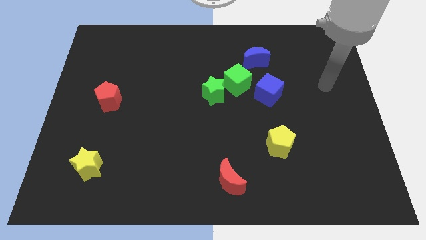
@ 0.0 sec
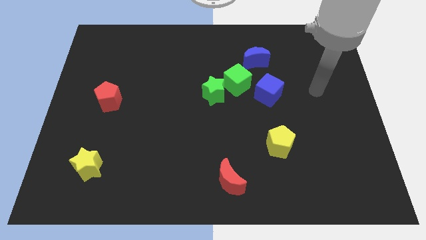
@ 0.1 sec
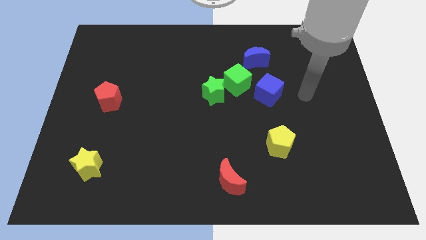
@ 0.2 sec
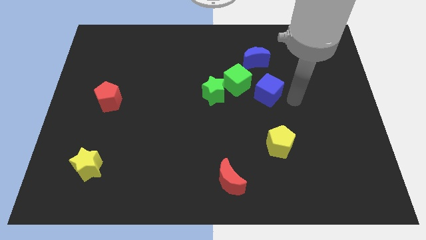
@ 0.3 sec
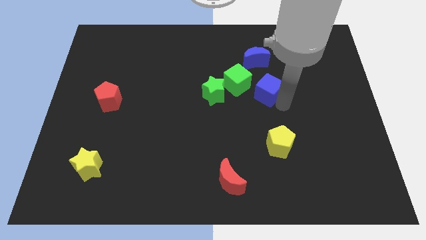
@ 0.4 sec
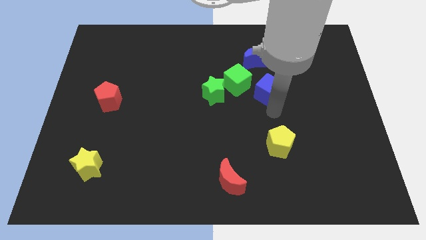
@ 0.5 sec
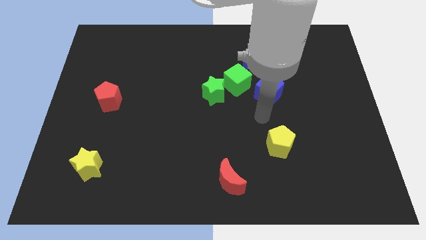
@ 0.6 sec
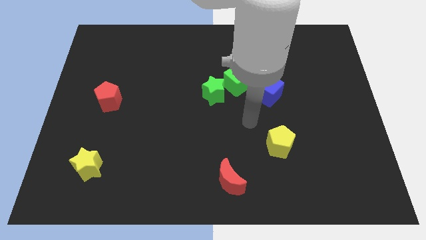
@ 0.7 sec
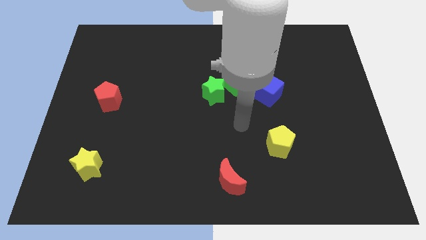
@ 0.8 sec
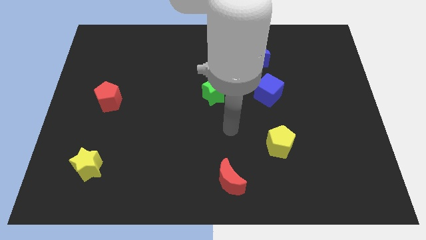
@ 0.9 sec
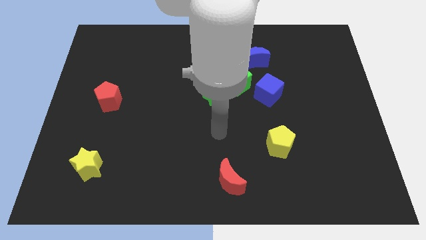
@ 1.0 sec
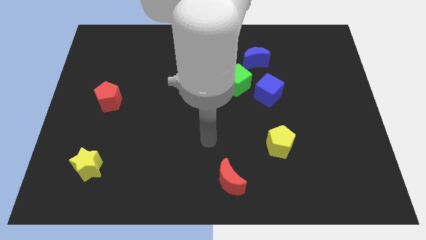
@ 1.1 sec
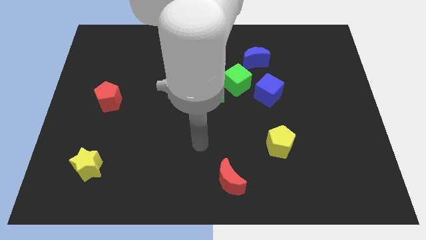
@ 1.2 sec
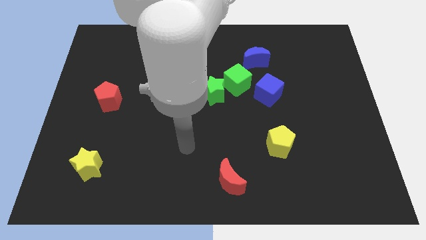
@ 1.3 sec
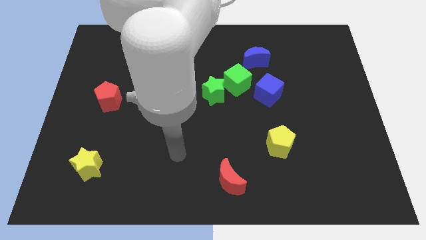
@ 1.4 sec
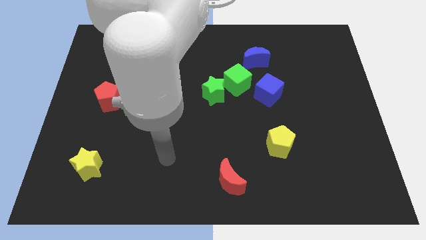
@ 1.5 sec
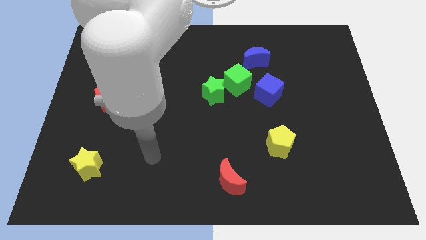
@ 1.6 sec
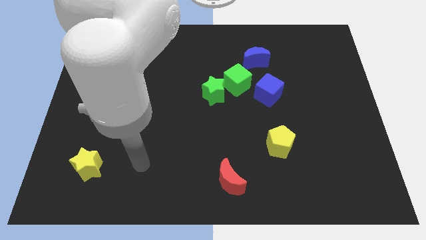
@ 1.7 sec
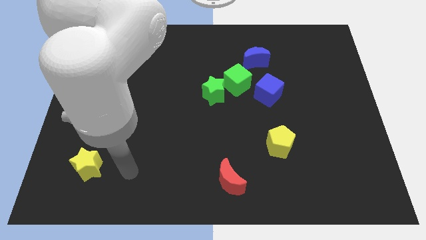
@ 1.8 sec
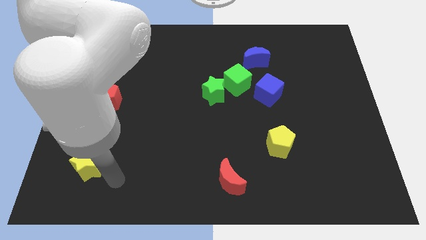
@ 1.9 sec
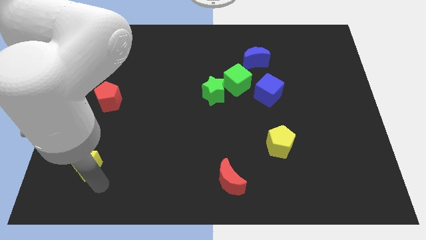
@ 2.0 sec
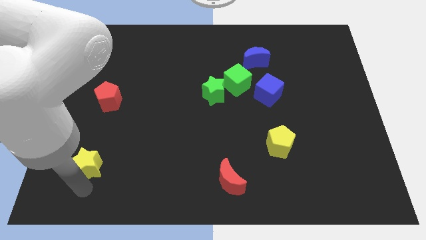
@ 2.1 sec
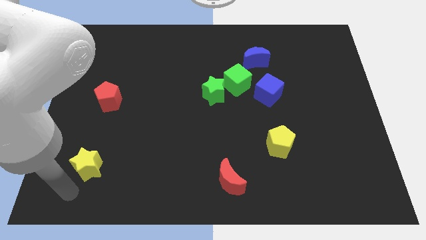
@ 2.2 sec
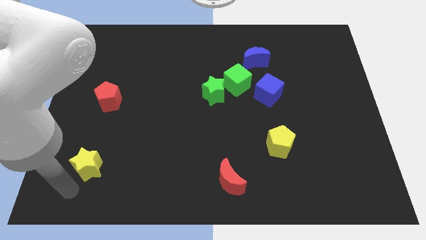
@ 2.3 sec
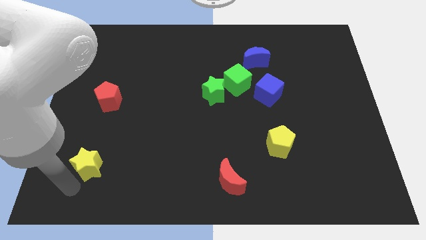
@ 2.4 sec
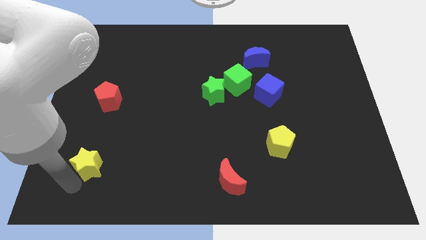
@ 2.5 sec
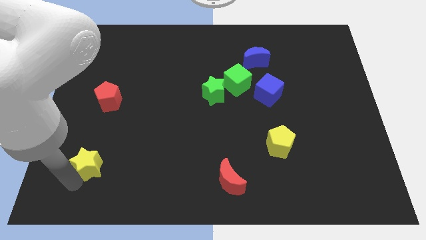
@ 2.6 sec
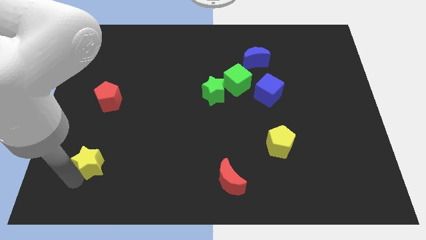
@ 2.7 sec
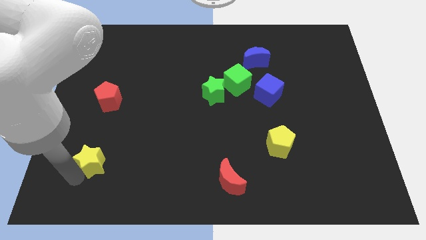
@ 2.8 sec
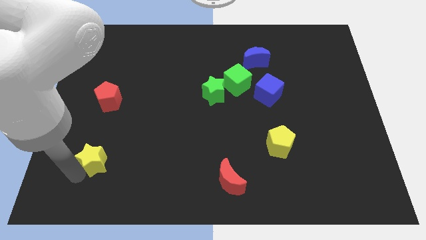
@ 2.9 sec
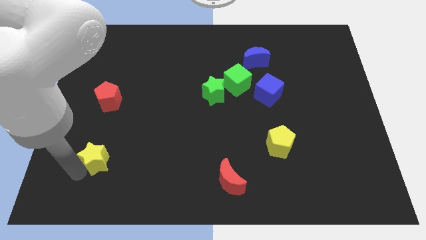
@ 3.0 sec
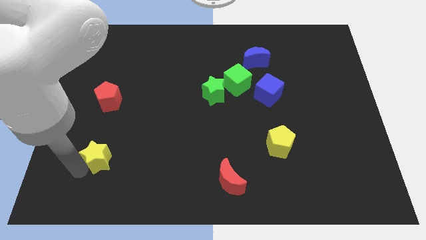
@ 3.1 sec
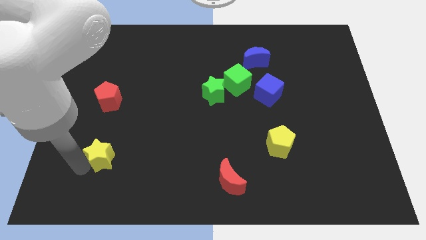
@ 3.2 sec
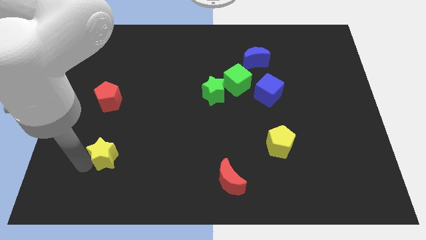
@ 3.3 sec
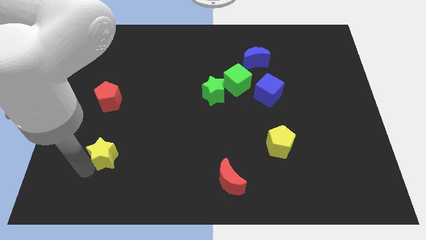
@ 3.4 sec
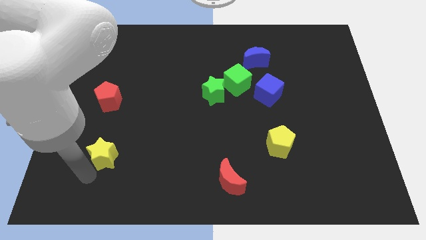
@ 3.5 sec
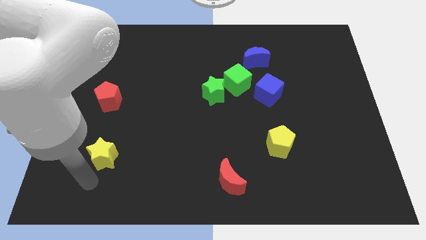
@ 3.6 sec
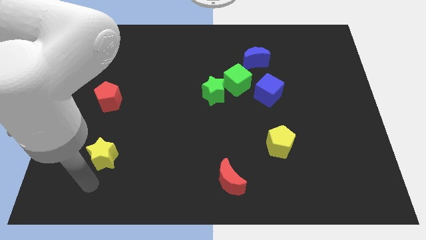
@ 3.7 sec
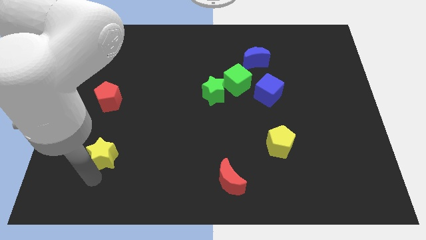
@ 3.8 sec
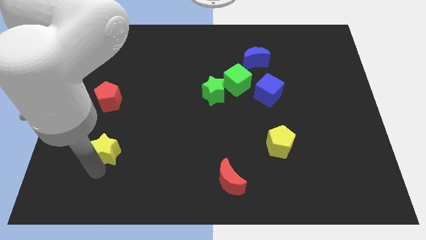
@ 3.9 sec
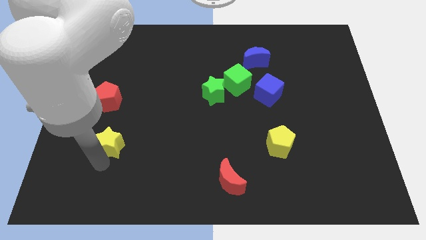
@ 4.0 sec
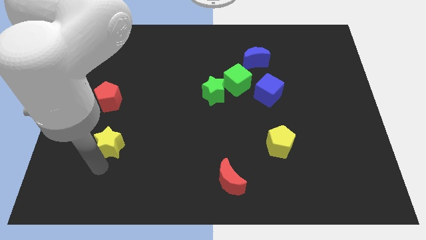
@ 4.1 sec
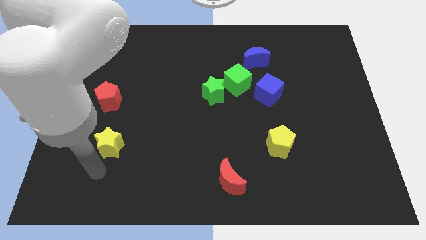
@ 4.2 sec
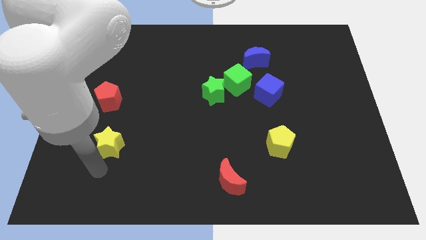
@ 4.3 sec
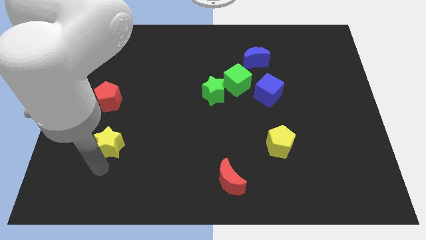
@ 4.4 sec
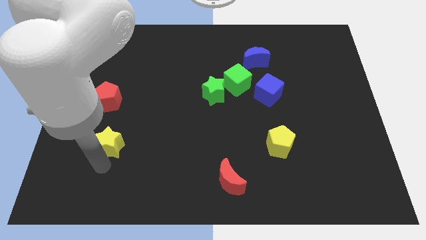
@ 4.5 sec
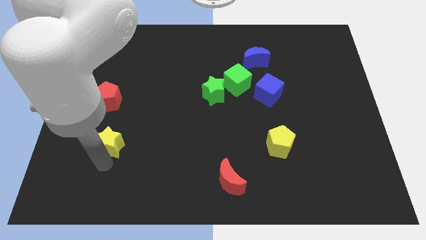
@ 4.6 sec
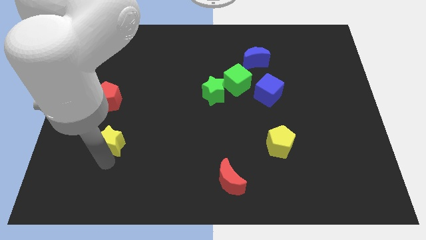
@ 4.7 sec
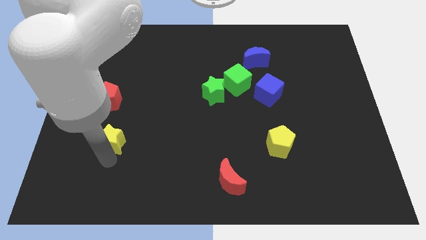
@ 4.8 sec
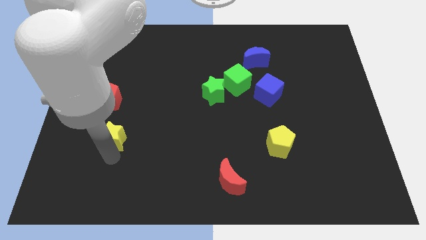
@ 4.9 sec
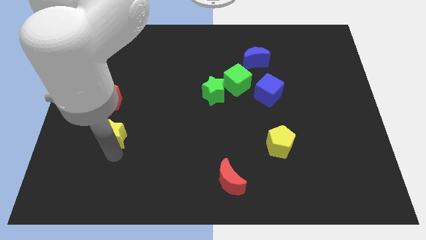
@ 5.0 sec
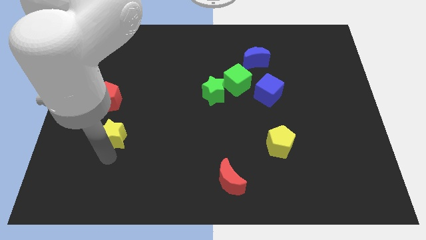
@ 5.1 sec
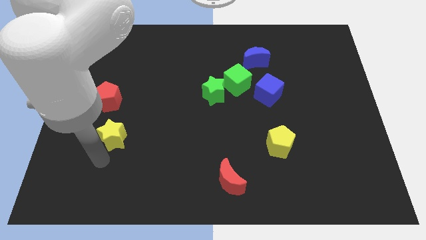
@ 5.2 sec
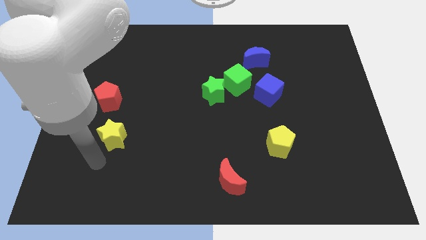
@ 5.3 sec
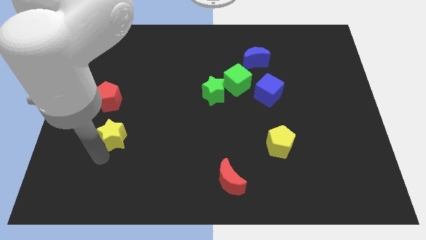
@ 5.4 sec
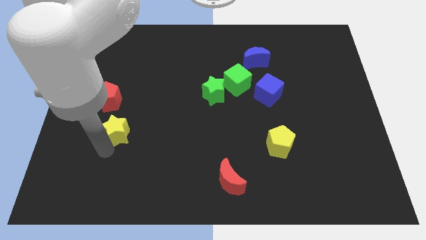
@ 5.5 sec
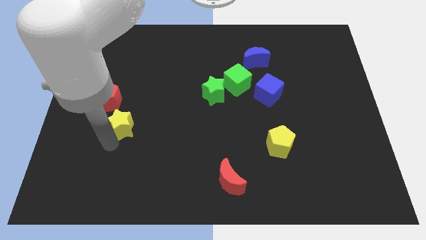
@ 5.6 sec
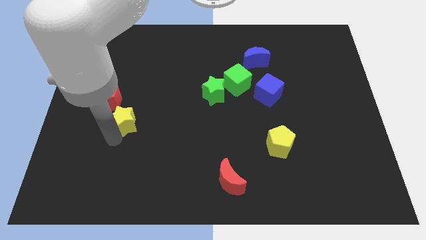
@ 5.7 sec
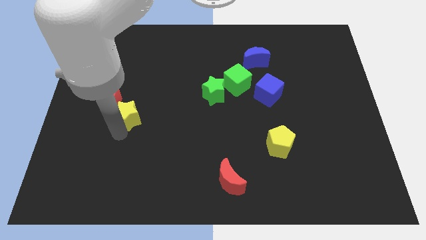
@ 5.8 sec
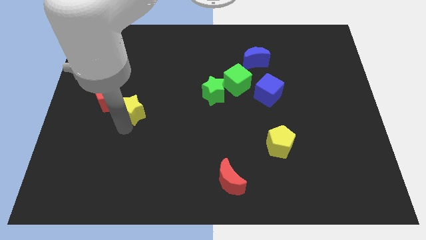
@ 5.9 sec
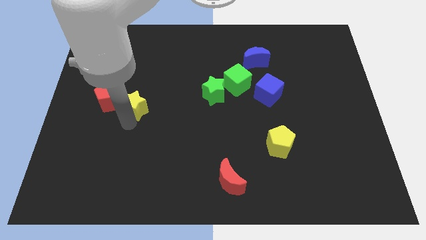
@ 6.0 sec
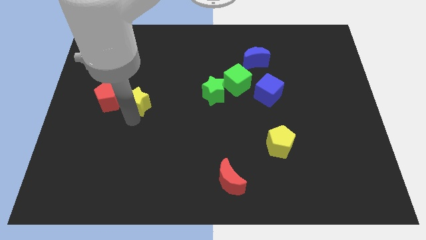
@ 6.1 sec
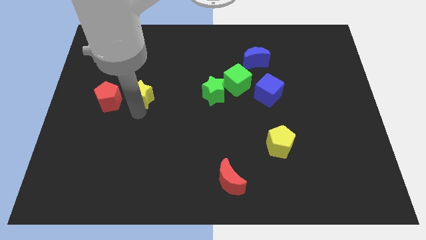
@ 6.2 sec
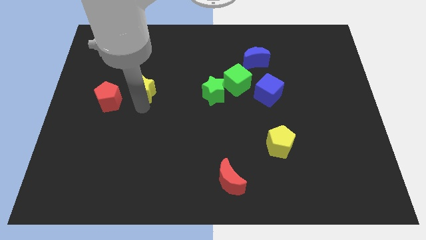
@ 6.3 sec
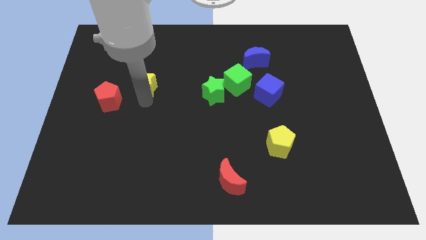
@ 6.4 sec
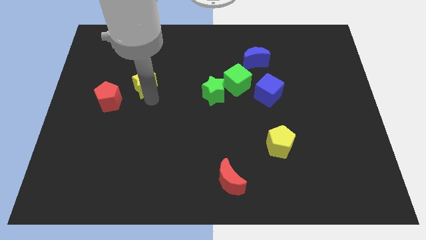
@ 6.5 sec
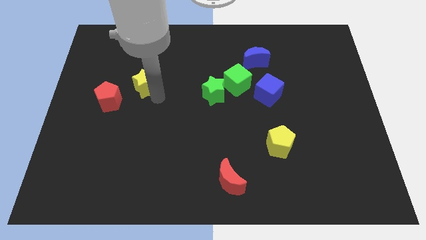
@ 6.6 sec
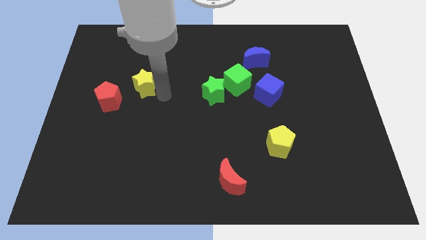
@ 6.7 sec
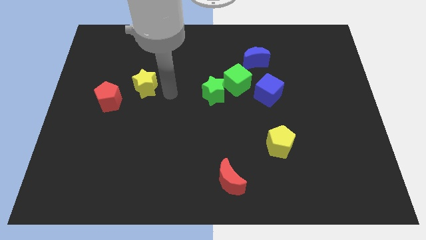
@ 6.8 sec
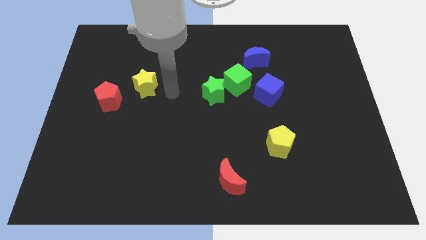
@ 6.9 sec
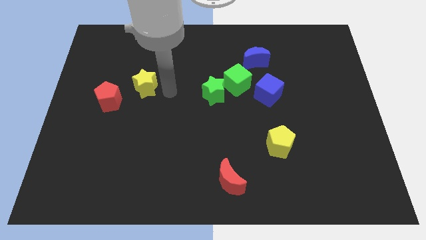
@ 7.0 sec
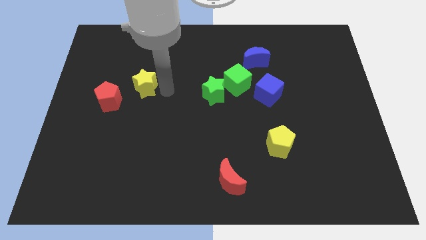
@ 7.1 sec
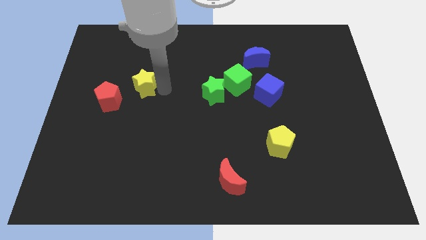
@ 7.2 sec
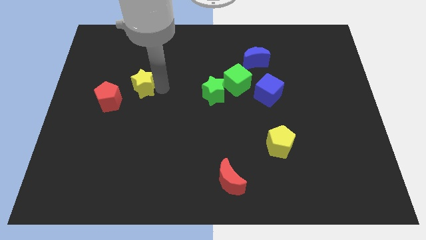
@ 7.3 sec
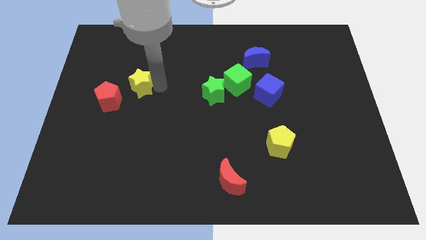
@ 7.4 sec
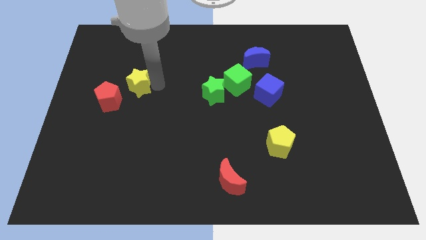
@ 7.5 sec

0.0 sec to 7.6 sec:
move the yellow star upwards

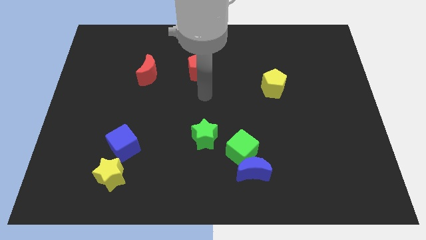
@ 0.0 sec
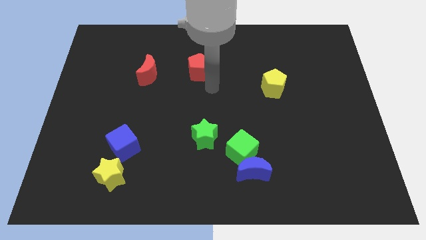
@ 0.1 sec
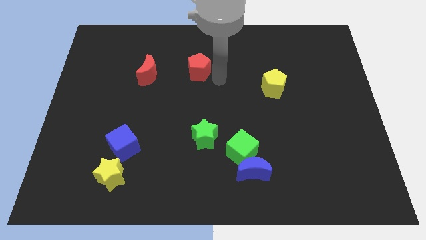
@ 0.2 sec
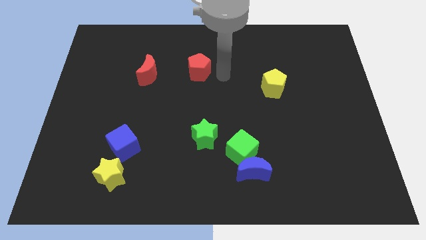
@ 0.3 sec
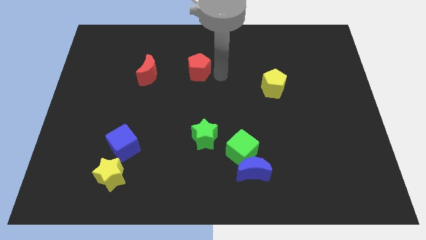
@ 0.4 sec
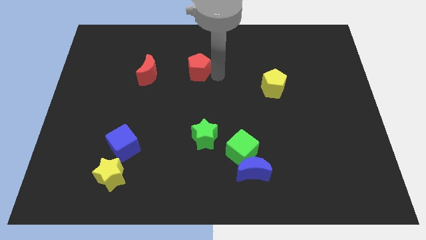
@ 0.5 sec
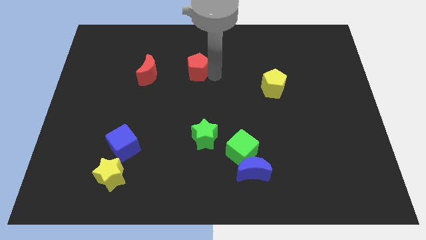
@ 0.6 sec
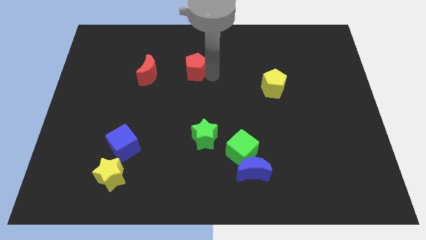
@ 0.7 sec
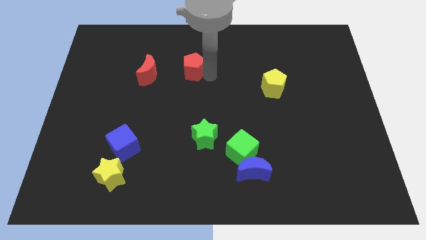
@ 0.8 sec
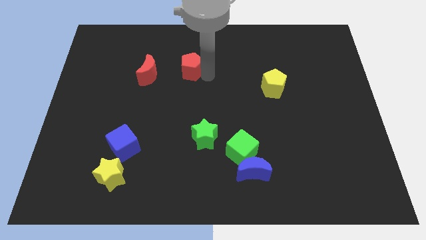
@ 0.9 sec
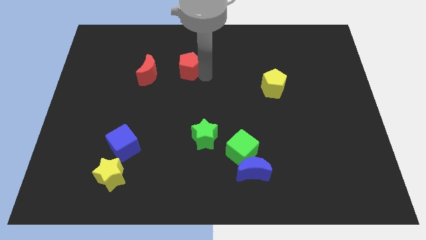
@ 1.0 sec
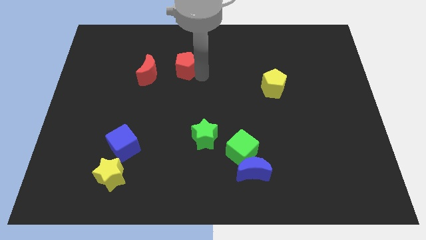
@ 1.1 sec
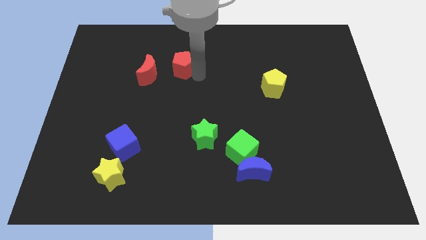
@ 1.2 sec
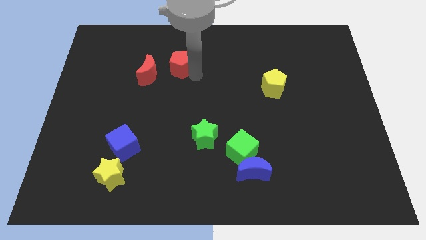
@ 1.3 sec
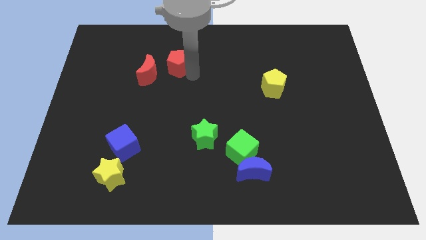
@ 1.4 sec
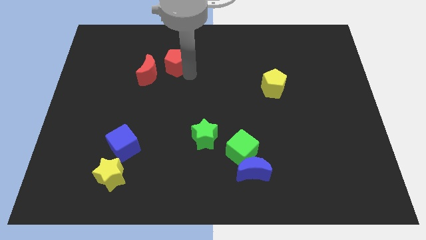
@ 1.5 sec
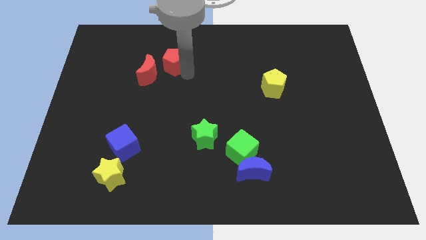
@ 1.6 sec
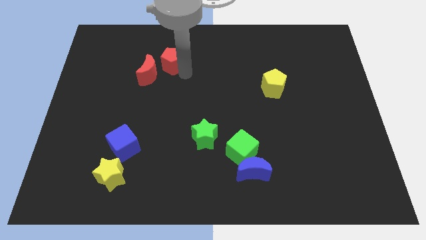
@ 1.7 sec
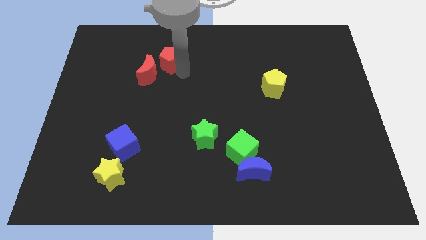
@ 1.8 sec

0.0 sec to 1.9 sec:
move the red pentagon slightly to the left
